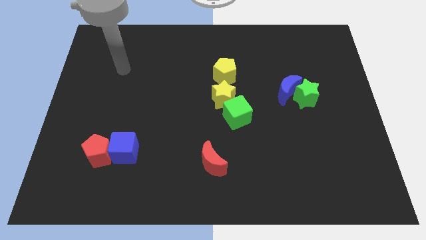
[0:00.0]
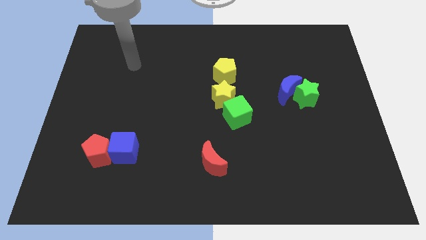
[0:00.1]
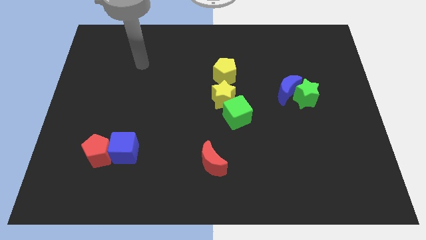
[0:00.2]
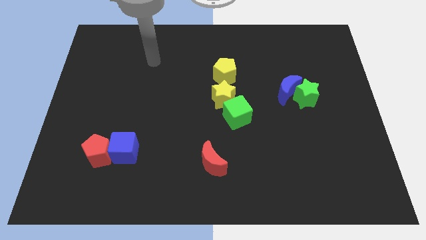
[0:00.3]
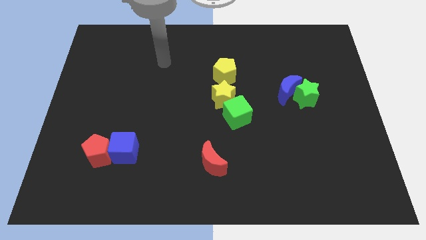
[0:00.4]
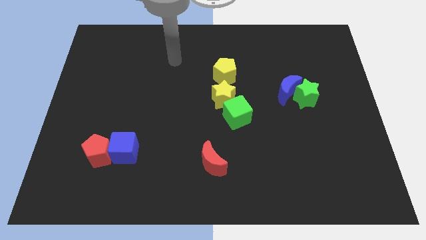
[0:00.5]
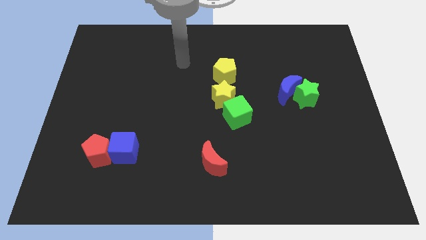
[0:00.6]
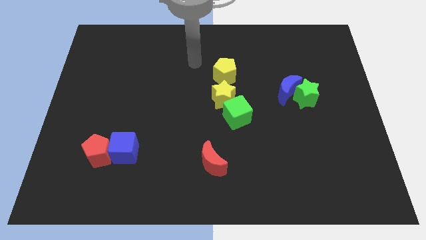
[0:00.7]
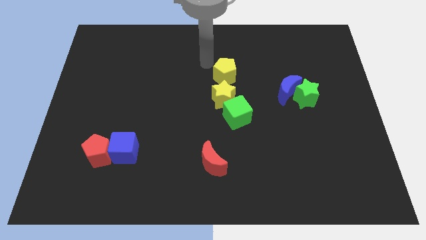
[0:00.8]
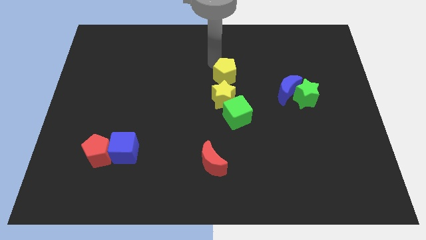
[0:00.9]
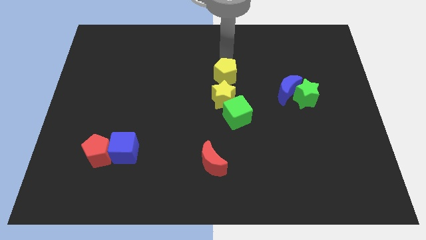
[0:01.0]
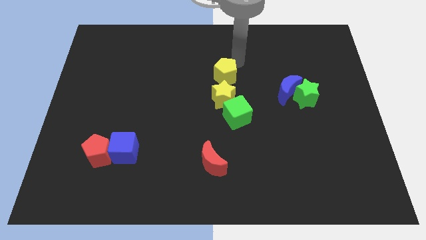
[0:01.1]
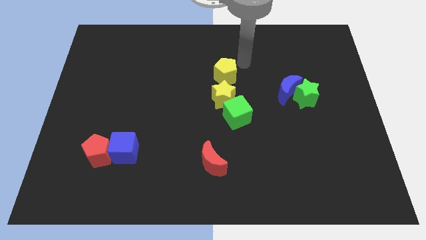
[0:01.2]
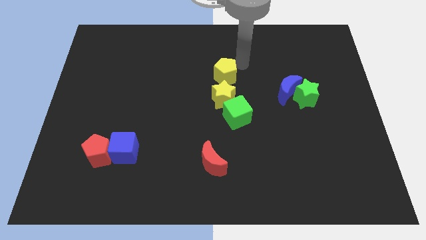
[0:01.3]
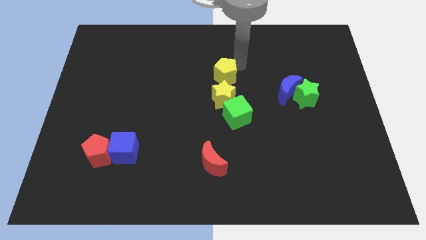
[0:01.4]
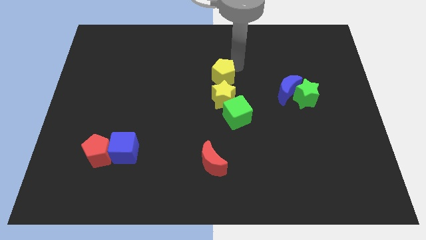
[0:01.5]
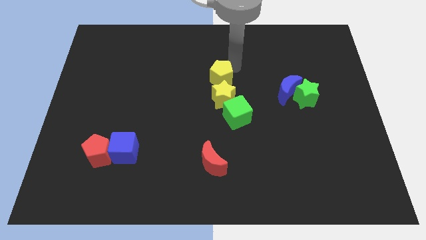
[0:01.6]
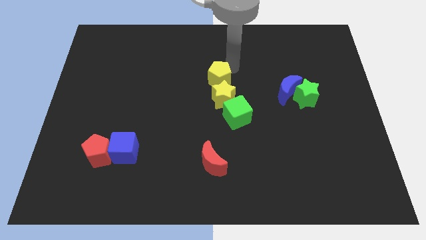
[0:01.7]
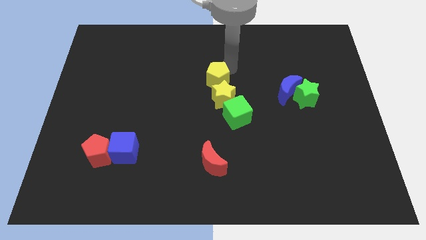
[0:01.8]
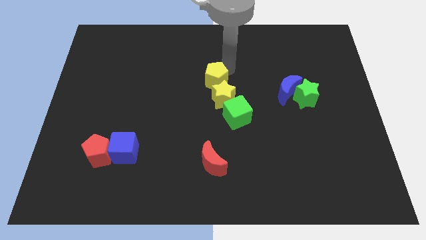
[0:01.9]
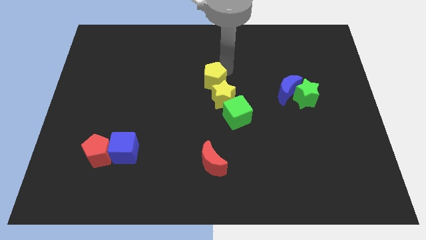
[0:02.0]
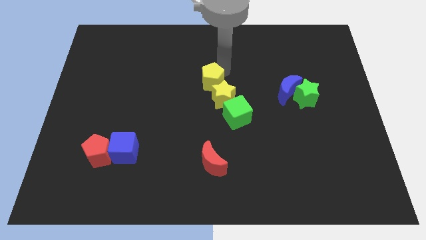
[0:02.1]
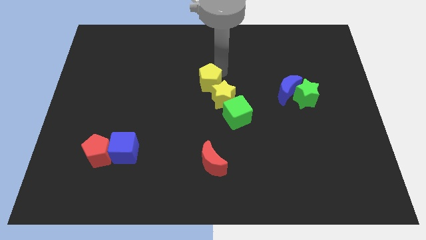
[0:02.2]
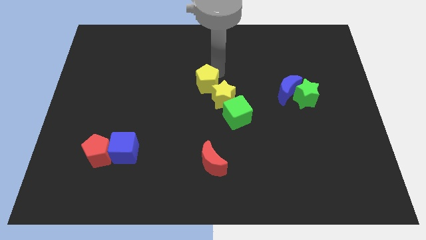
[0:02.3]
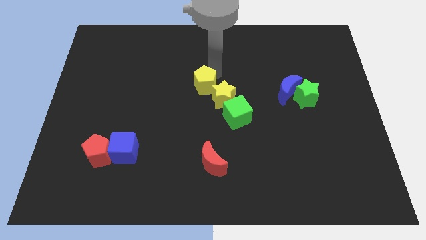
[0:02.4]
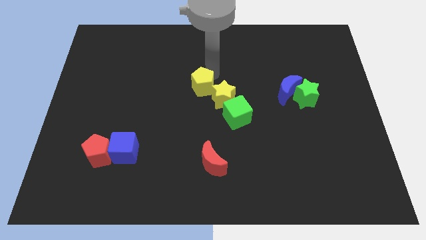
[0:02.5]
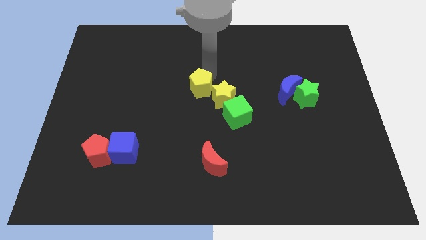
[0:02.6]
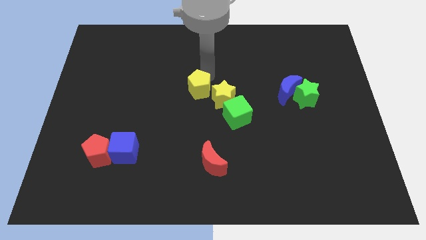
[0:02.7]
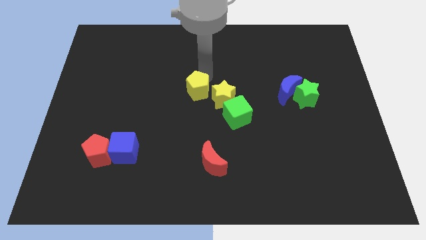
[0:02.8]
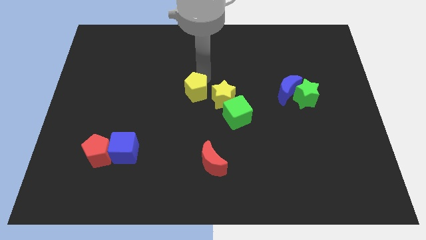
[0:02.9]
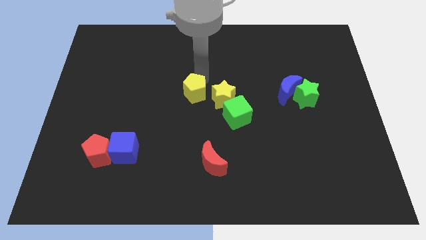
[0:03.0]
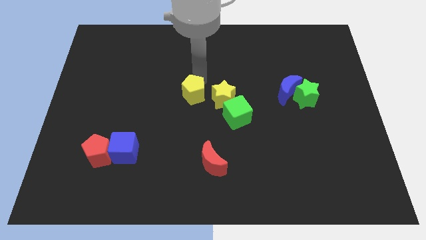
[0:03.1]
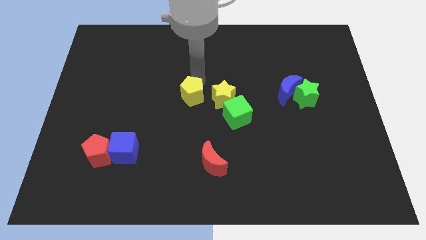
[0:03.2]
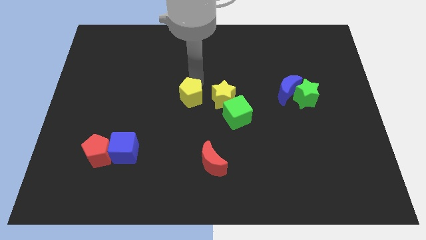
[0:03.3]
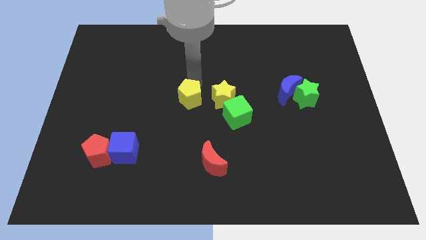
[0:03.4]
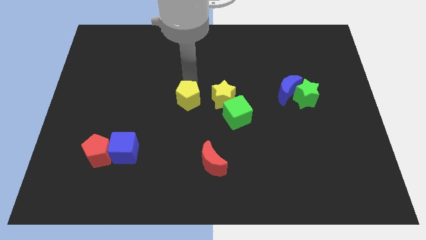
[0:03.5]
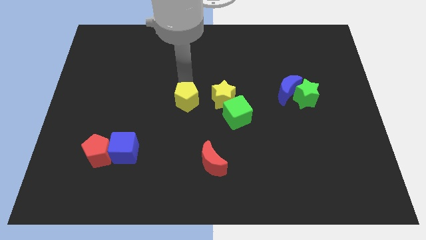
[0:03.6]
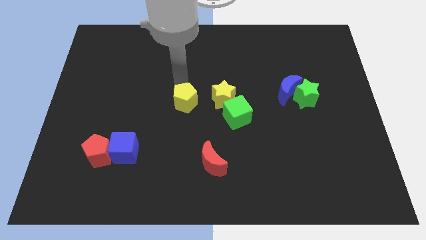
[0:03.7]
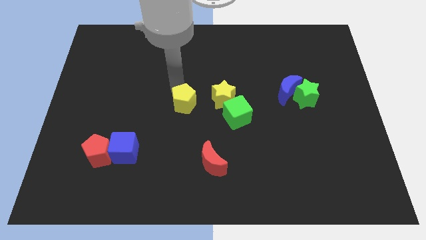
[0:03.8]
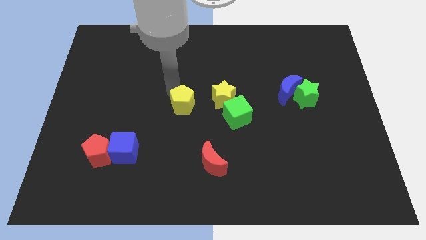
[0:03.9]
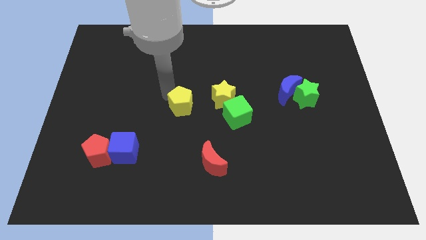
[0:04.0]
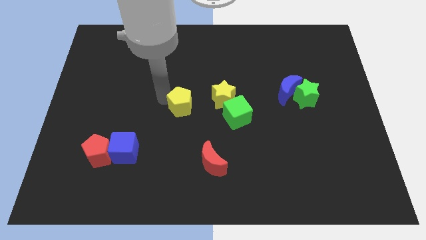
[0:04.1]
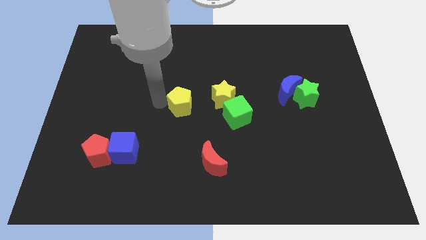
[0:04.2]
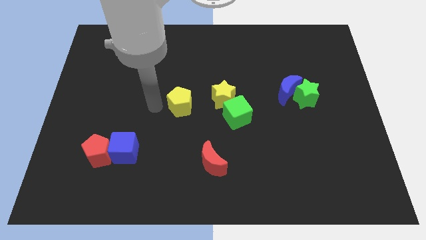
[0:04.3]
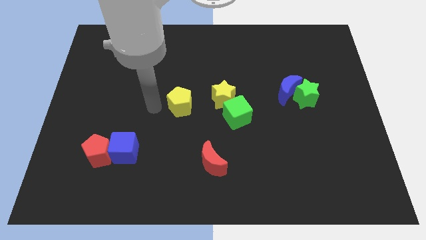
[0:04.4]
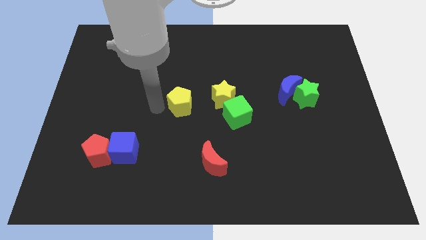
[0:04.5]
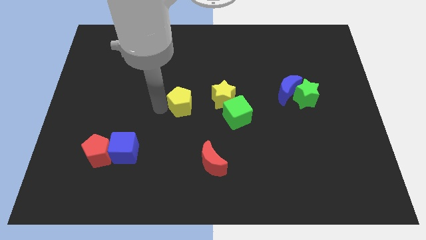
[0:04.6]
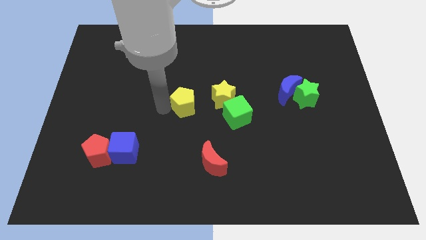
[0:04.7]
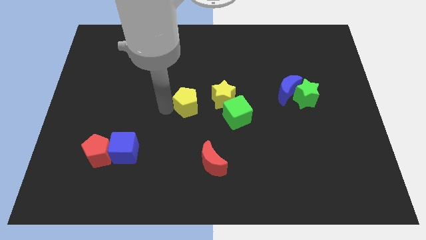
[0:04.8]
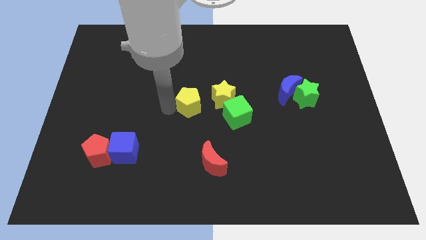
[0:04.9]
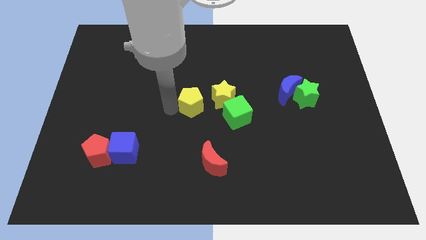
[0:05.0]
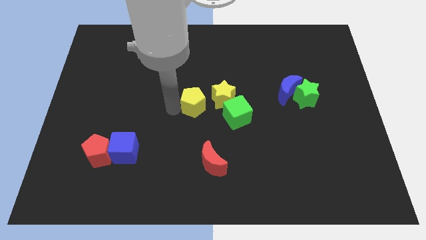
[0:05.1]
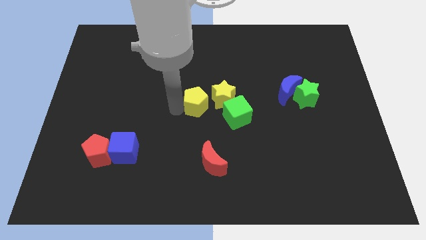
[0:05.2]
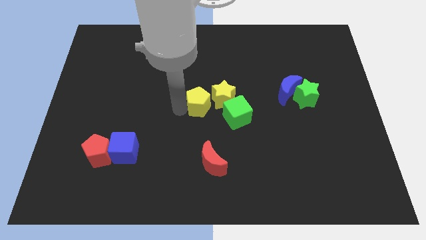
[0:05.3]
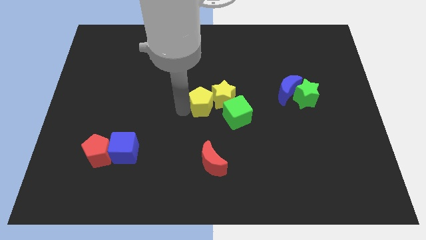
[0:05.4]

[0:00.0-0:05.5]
put the yellow pentagon to the top side of the red moon

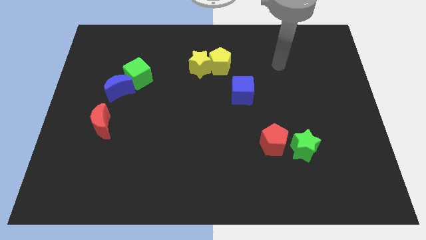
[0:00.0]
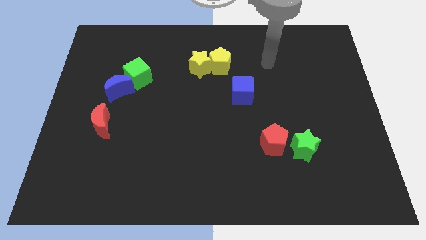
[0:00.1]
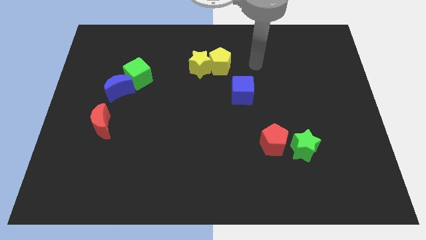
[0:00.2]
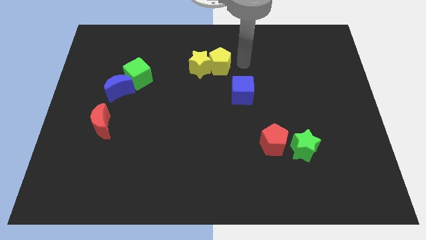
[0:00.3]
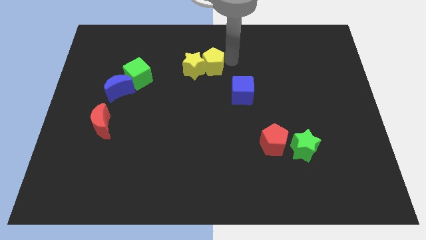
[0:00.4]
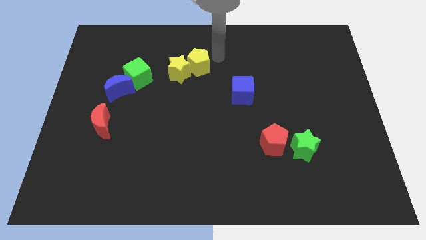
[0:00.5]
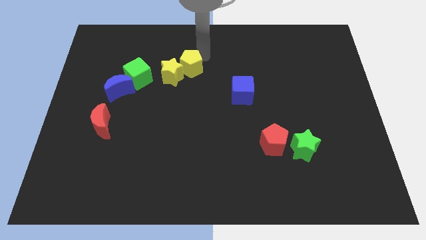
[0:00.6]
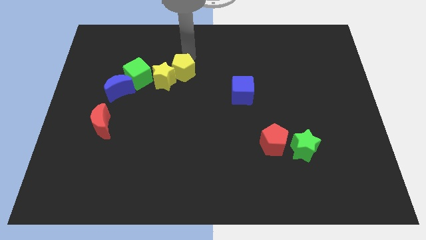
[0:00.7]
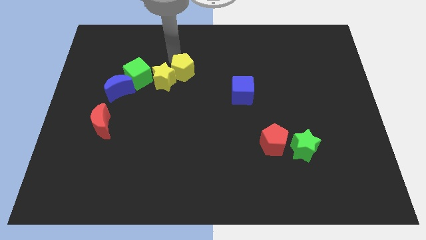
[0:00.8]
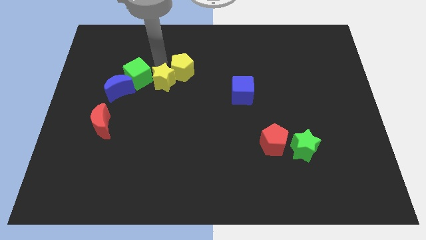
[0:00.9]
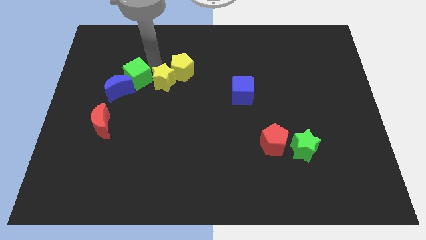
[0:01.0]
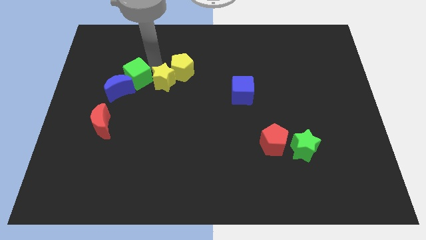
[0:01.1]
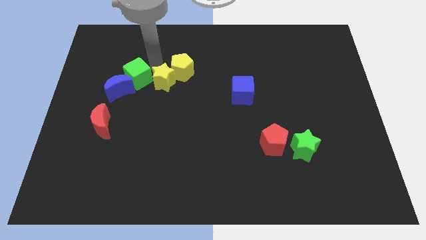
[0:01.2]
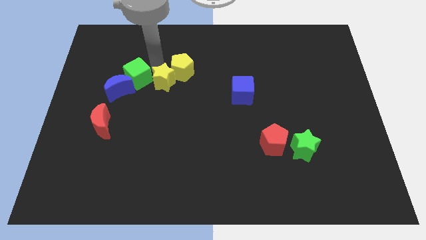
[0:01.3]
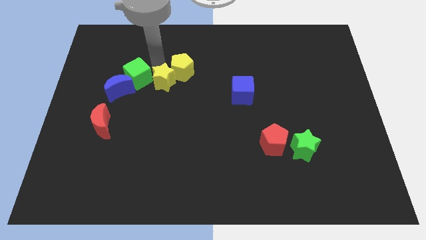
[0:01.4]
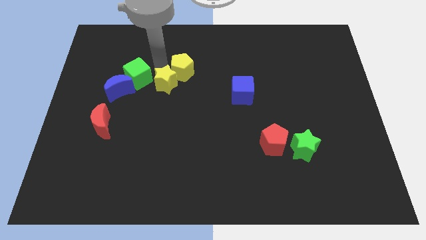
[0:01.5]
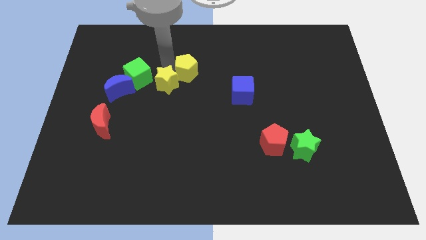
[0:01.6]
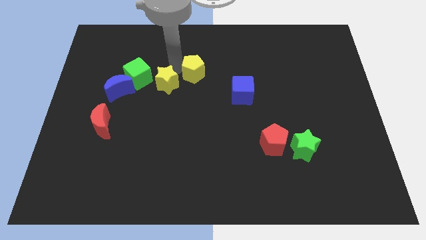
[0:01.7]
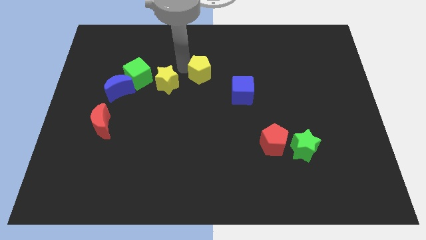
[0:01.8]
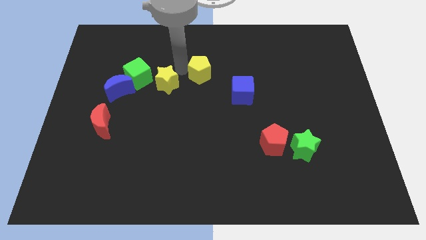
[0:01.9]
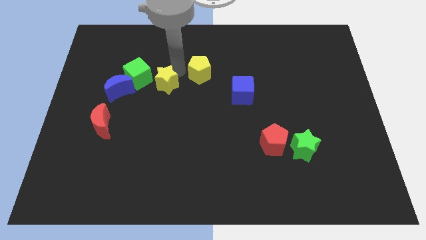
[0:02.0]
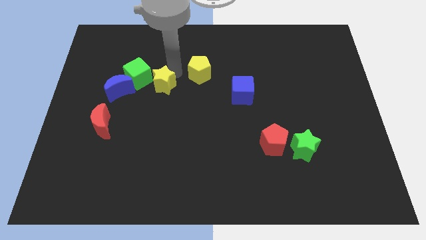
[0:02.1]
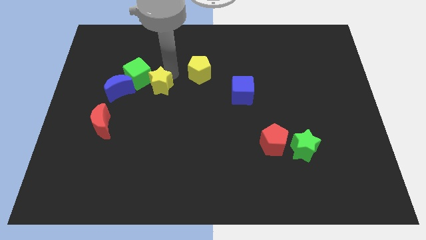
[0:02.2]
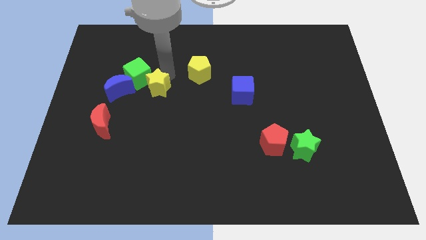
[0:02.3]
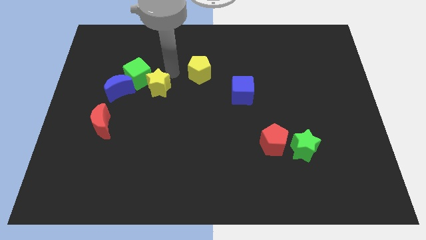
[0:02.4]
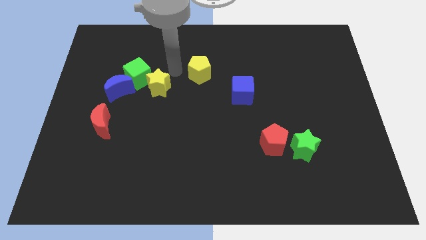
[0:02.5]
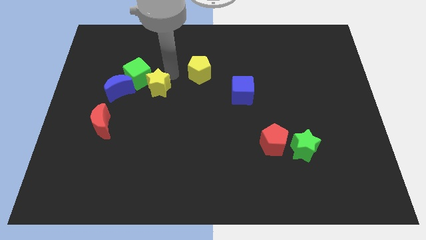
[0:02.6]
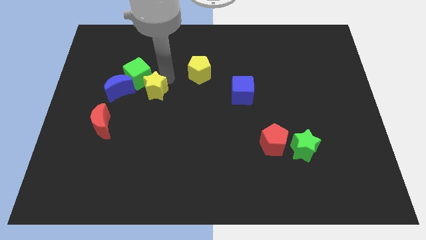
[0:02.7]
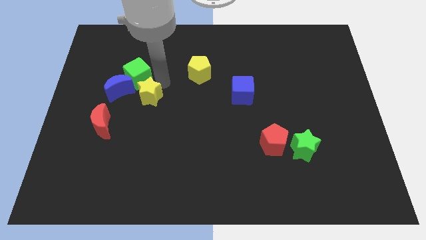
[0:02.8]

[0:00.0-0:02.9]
move the yellow star to the bottom right of the blue moon
